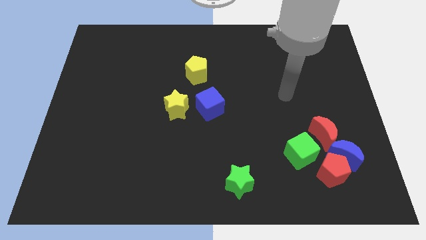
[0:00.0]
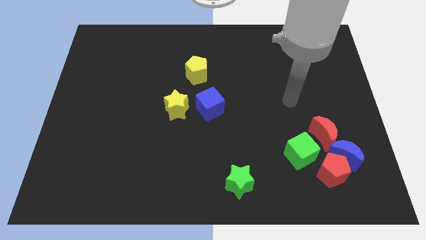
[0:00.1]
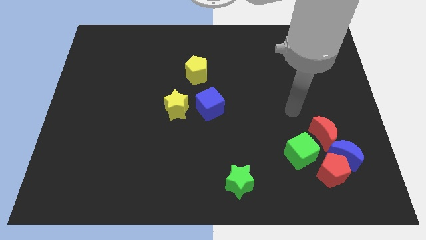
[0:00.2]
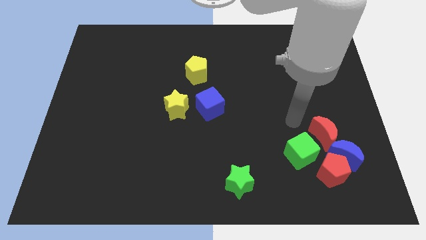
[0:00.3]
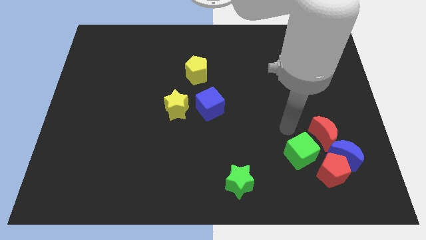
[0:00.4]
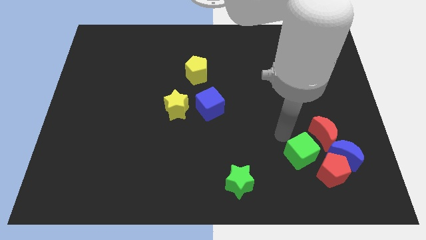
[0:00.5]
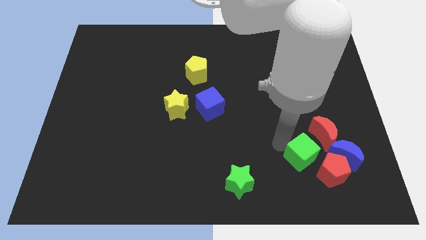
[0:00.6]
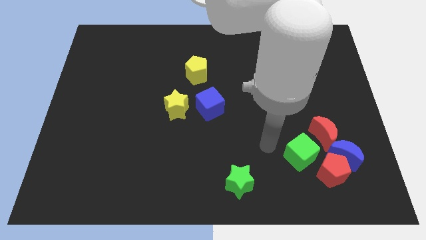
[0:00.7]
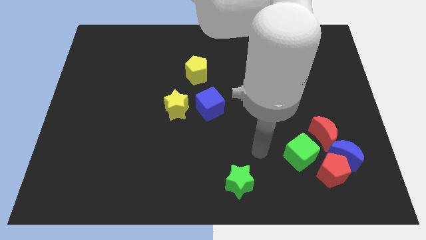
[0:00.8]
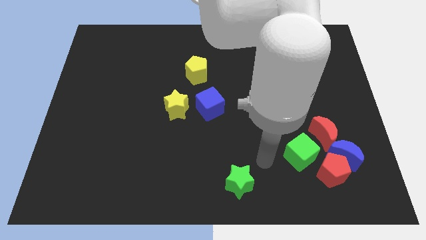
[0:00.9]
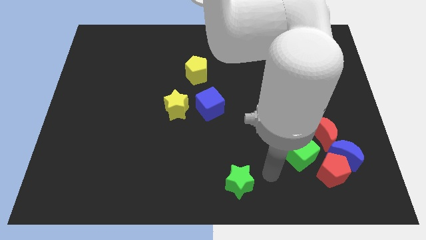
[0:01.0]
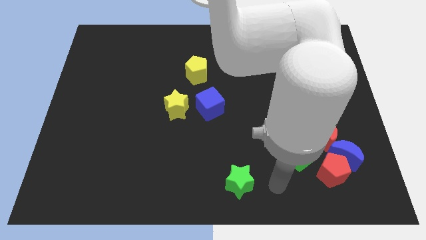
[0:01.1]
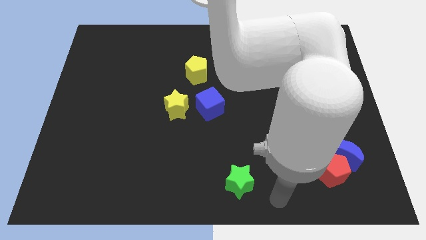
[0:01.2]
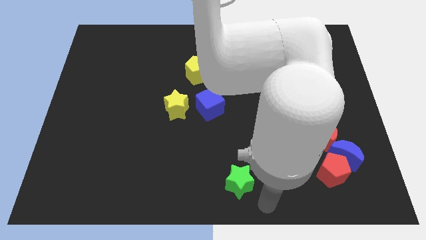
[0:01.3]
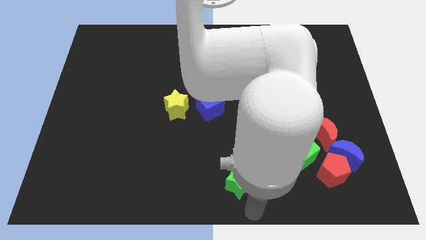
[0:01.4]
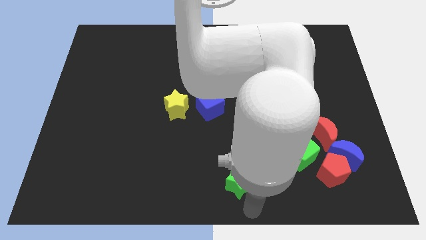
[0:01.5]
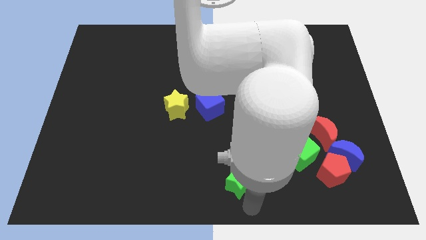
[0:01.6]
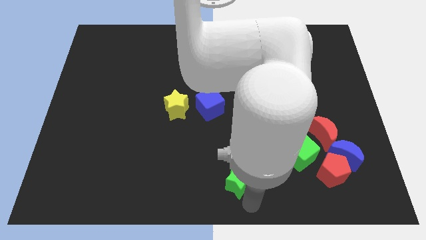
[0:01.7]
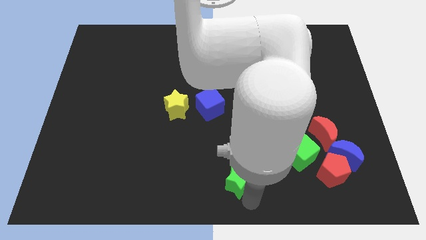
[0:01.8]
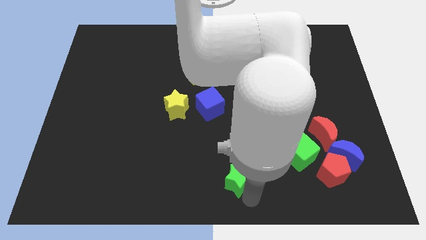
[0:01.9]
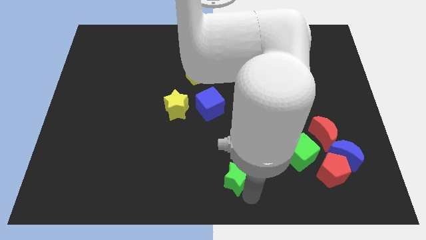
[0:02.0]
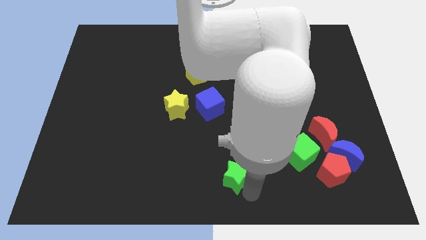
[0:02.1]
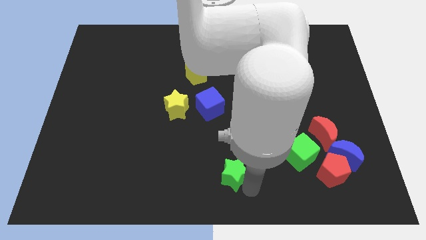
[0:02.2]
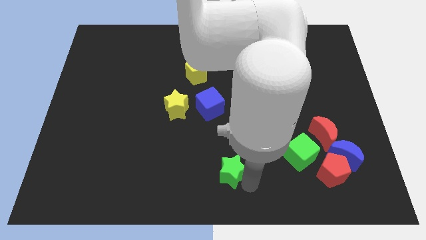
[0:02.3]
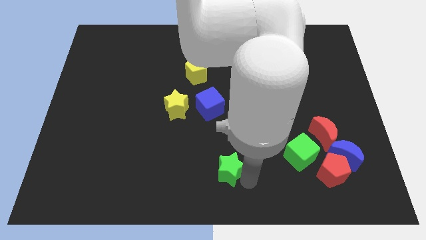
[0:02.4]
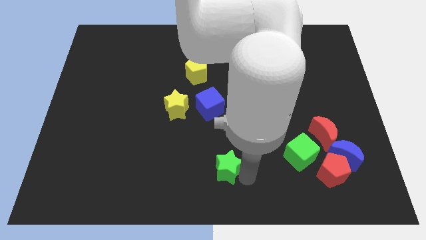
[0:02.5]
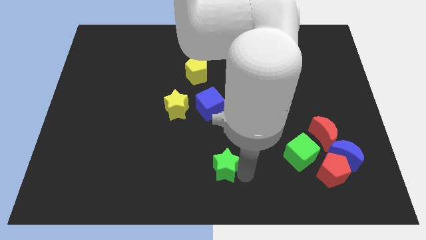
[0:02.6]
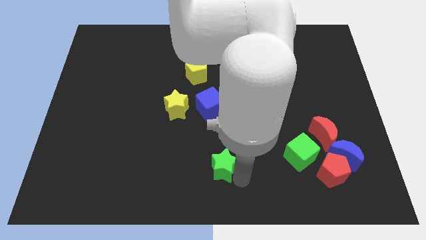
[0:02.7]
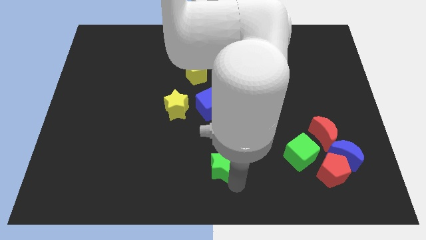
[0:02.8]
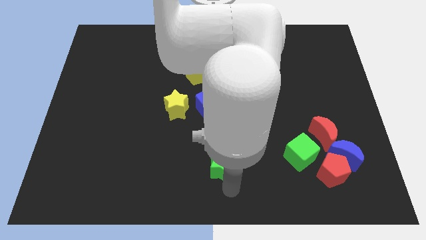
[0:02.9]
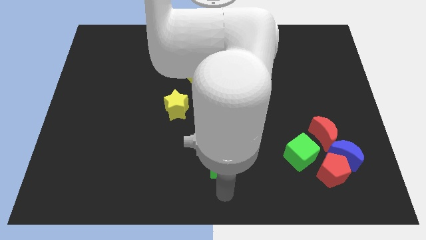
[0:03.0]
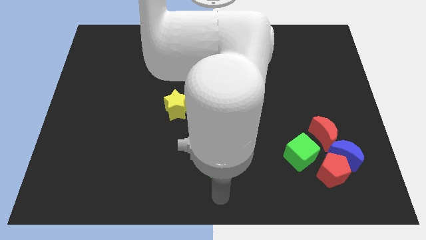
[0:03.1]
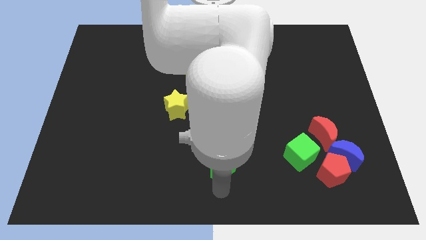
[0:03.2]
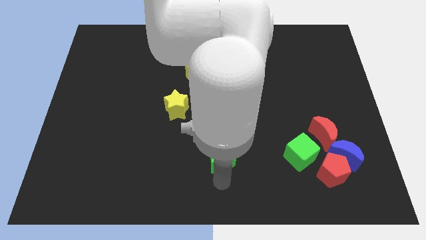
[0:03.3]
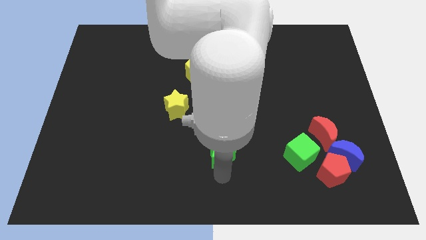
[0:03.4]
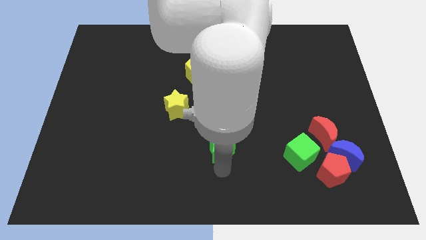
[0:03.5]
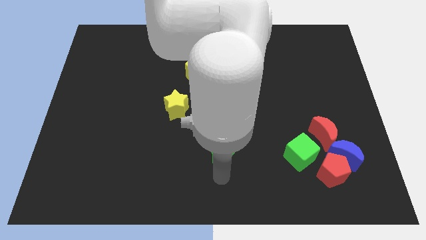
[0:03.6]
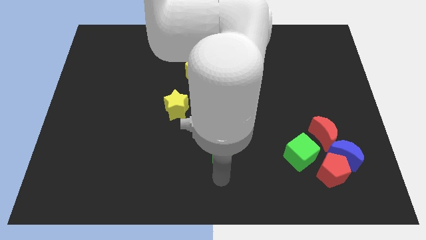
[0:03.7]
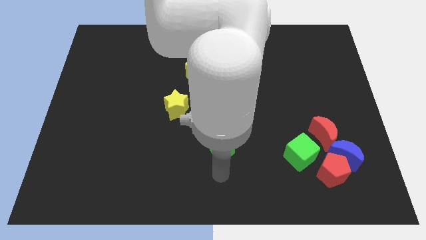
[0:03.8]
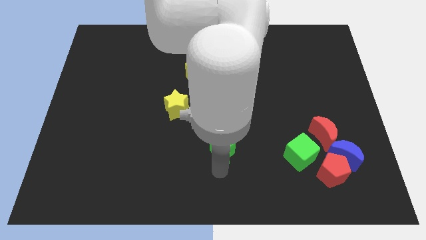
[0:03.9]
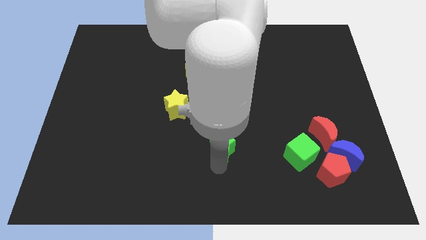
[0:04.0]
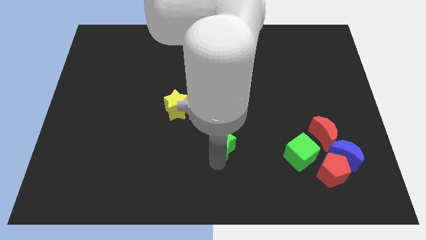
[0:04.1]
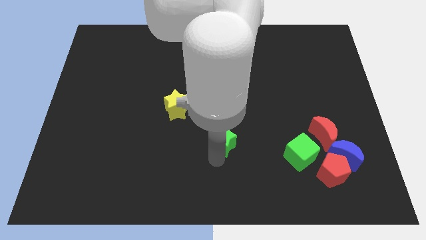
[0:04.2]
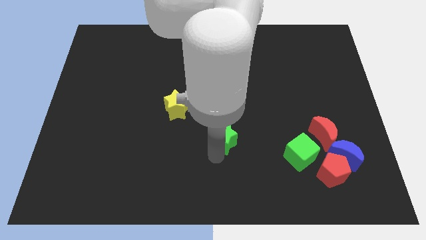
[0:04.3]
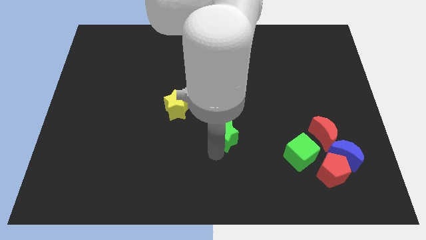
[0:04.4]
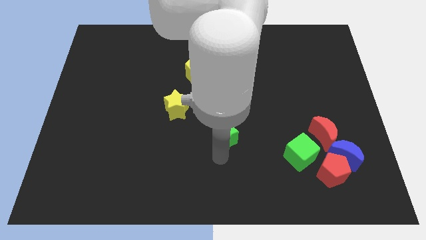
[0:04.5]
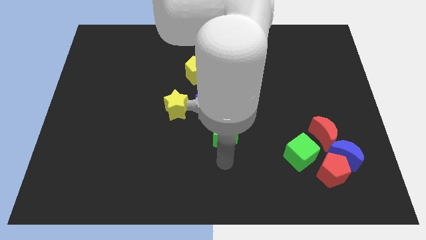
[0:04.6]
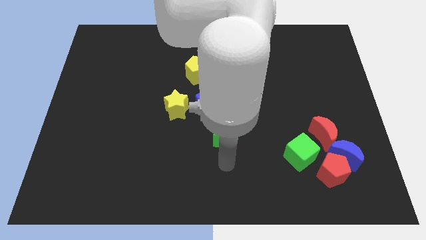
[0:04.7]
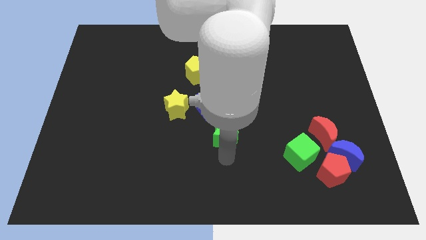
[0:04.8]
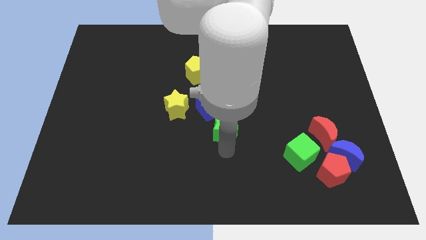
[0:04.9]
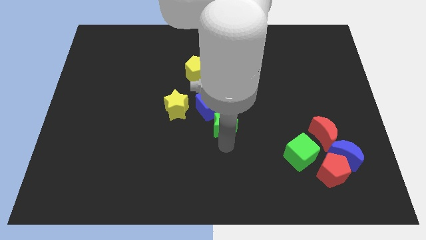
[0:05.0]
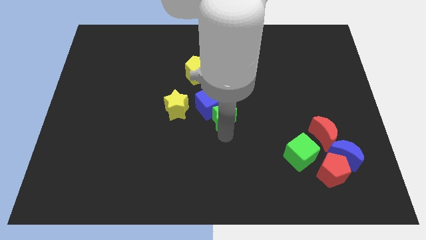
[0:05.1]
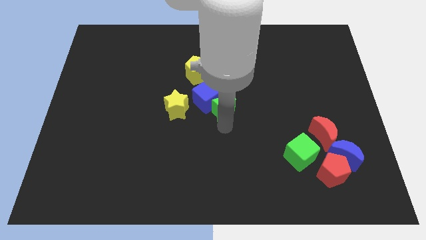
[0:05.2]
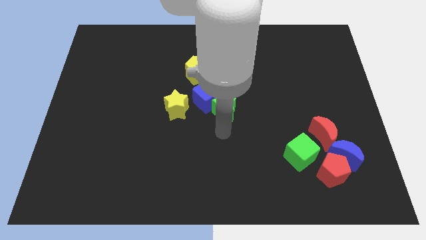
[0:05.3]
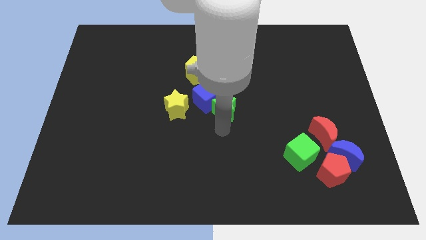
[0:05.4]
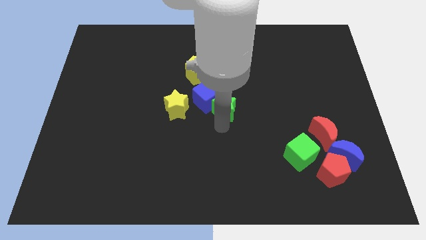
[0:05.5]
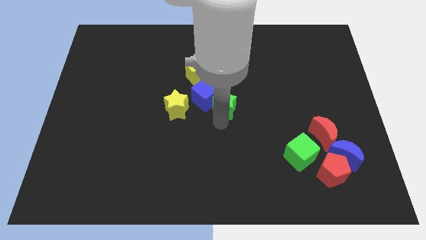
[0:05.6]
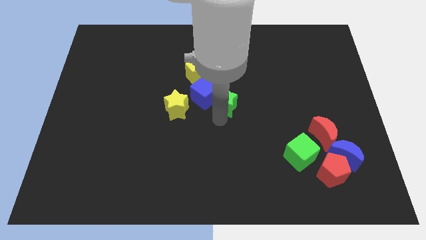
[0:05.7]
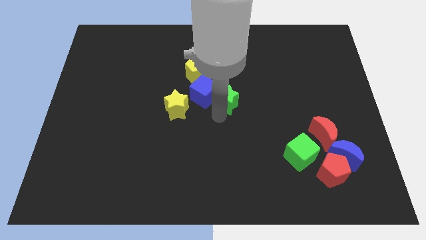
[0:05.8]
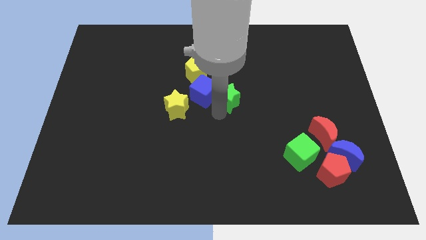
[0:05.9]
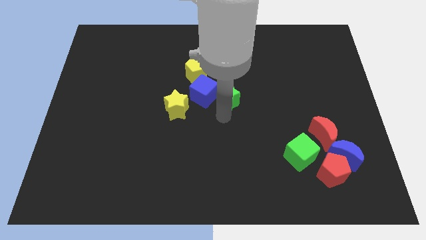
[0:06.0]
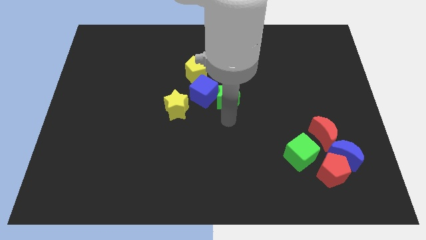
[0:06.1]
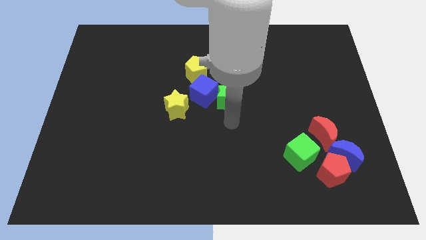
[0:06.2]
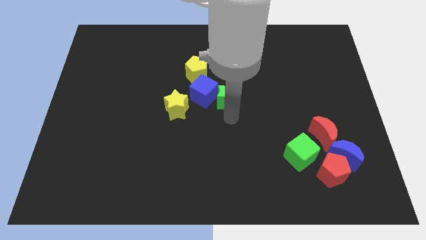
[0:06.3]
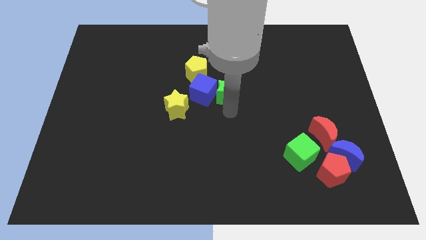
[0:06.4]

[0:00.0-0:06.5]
push the green star to the top right of the blue cube
